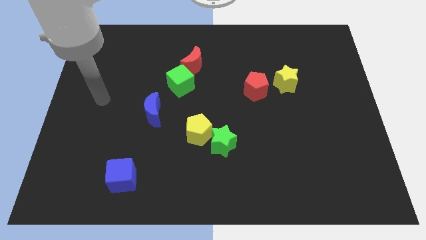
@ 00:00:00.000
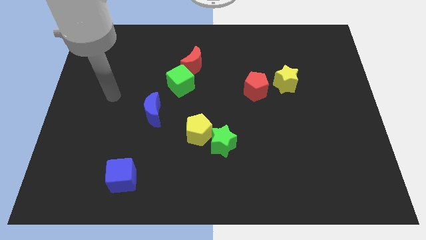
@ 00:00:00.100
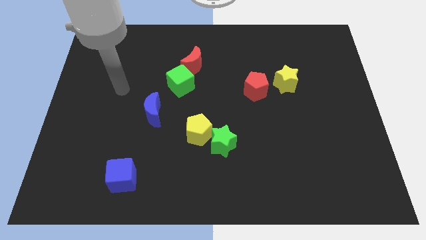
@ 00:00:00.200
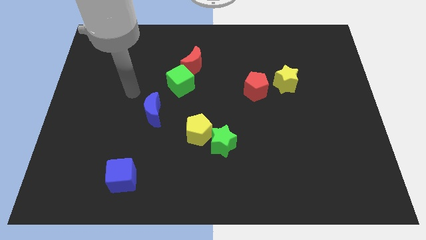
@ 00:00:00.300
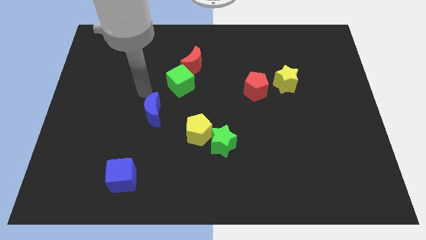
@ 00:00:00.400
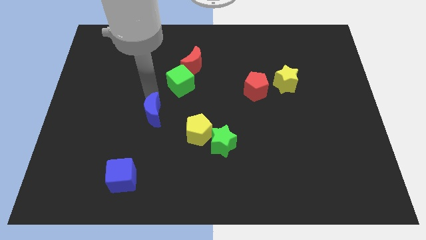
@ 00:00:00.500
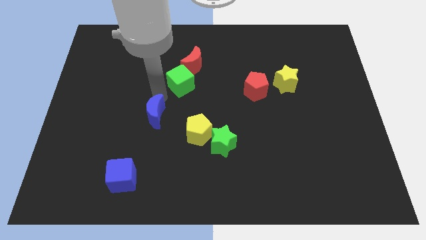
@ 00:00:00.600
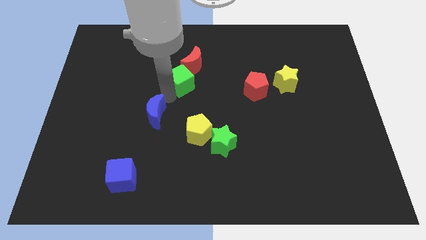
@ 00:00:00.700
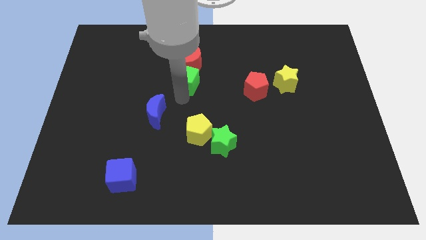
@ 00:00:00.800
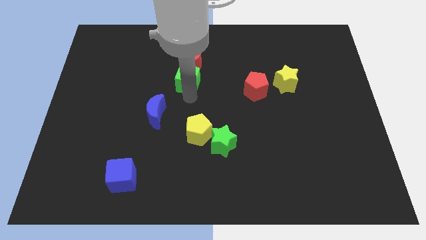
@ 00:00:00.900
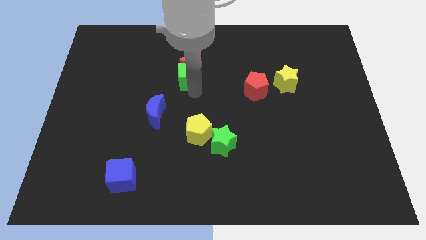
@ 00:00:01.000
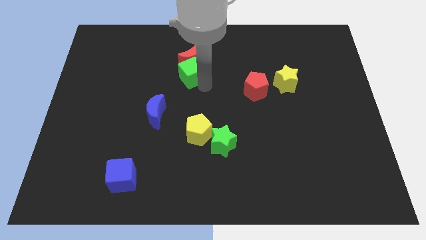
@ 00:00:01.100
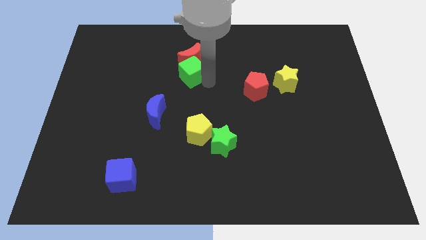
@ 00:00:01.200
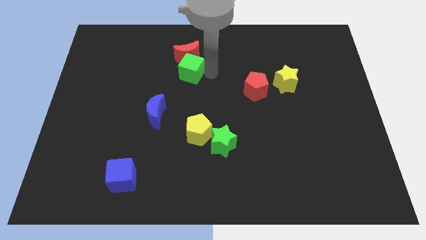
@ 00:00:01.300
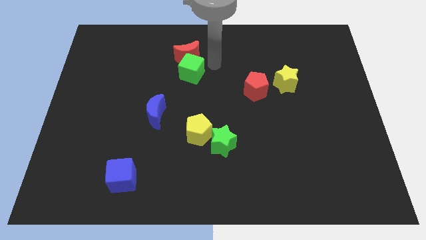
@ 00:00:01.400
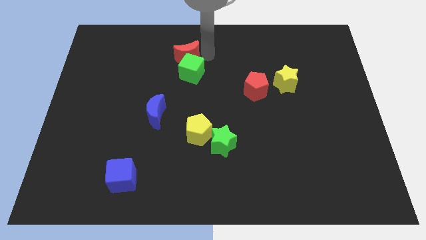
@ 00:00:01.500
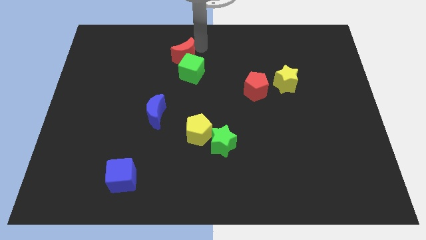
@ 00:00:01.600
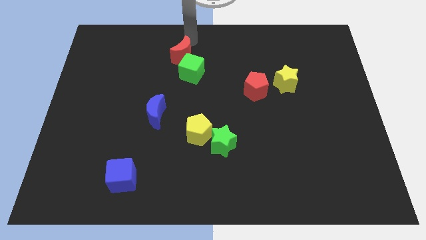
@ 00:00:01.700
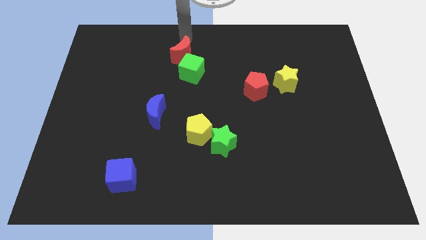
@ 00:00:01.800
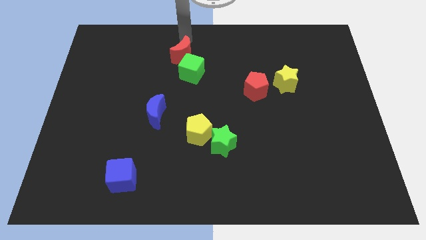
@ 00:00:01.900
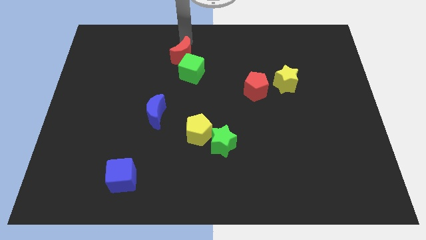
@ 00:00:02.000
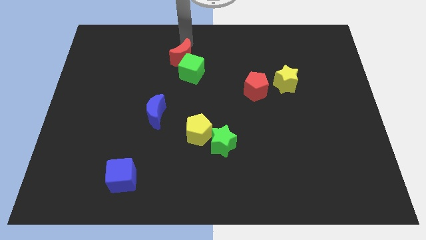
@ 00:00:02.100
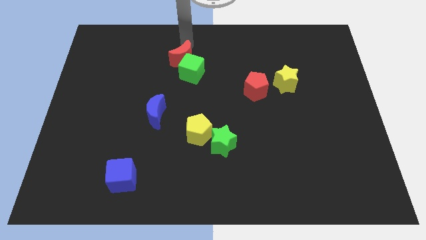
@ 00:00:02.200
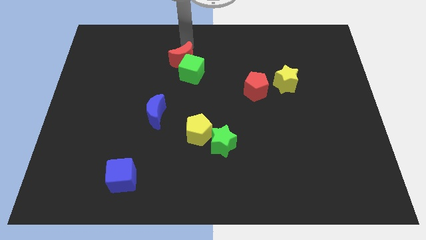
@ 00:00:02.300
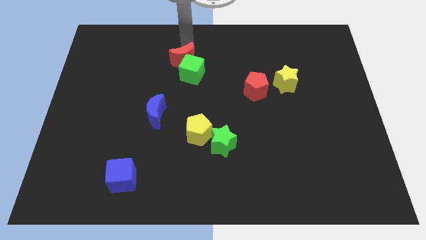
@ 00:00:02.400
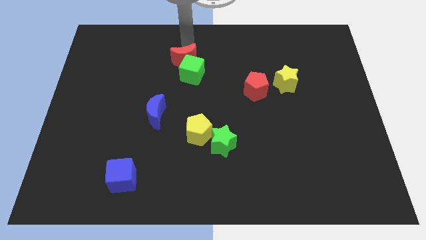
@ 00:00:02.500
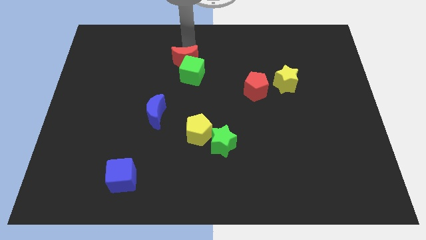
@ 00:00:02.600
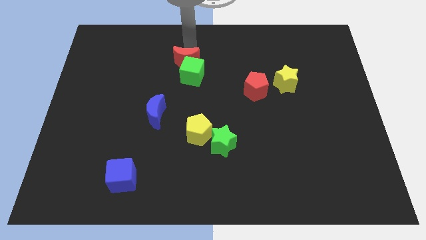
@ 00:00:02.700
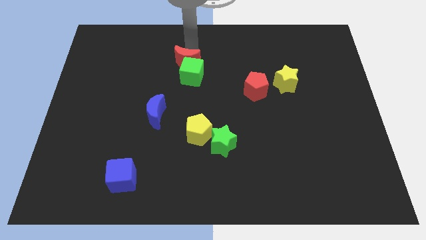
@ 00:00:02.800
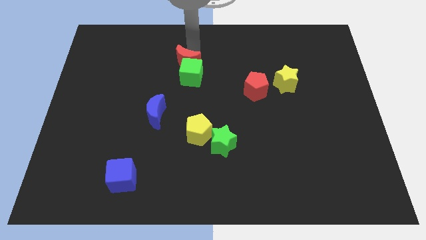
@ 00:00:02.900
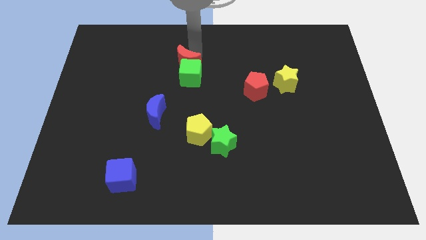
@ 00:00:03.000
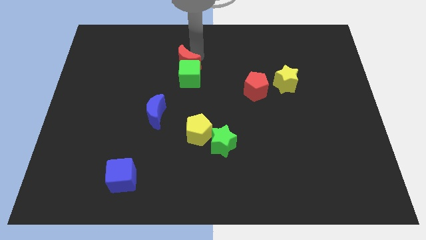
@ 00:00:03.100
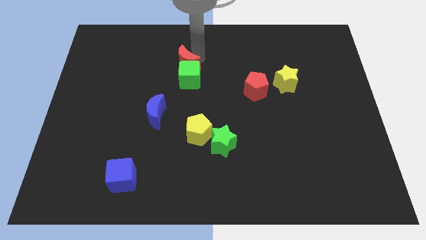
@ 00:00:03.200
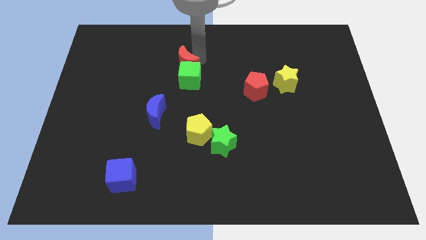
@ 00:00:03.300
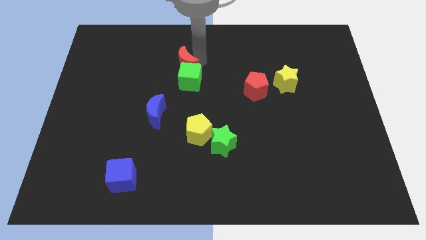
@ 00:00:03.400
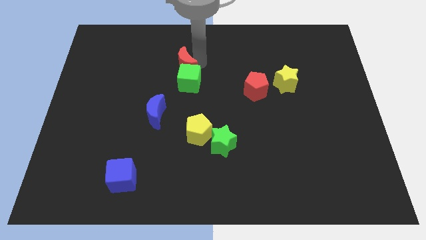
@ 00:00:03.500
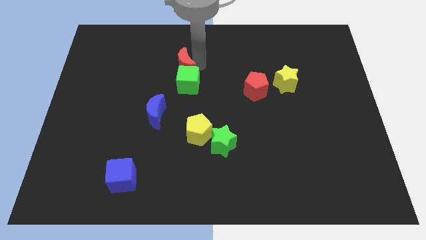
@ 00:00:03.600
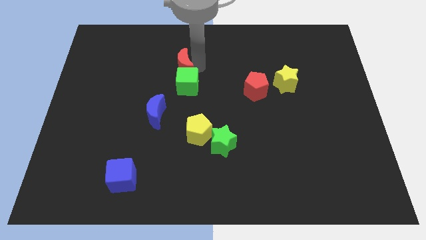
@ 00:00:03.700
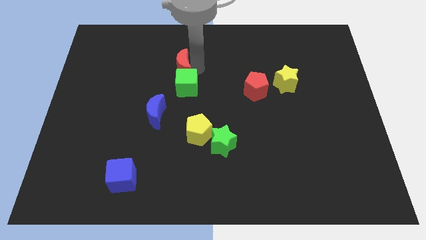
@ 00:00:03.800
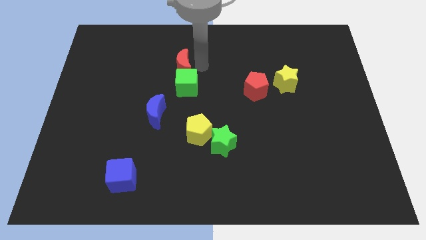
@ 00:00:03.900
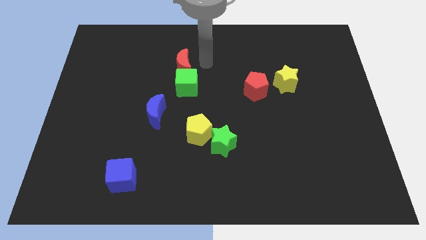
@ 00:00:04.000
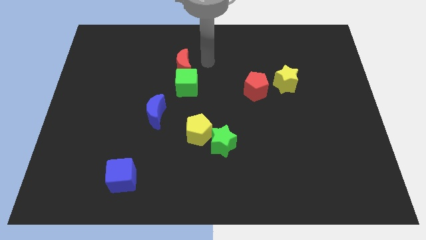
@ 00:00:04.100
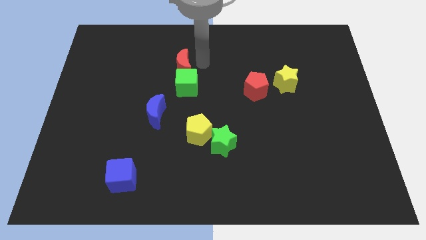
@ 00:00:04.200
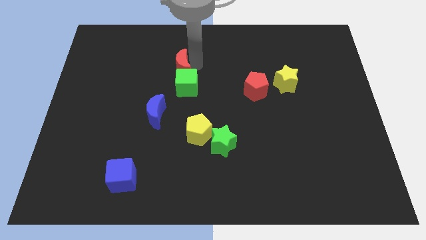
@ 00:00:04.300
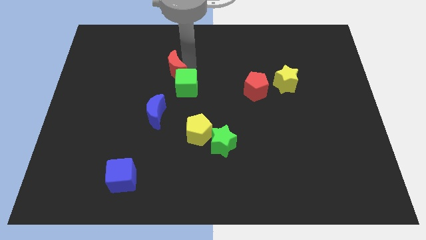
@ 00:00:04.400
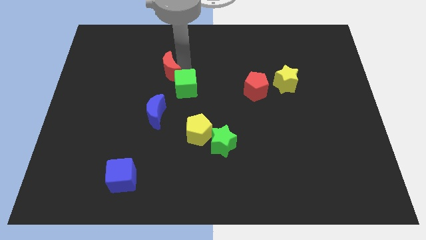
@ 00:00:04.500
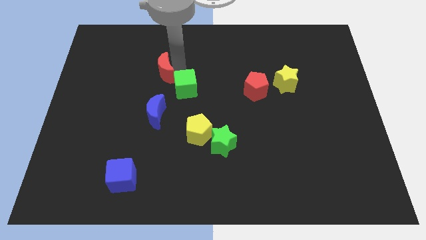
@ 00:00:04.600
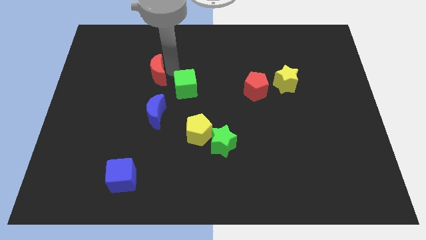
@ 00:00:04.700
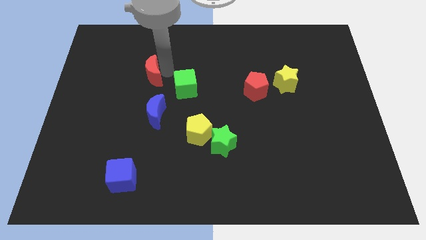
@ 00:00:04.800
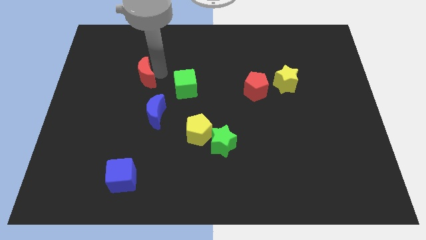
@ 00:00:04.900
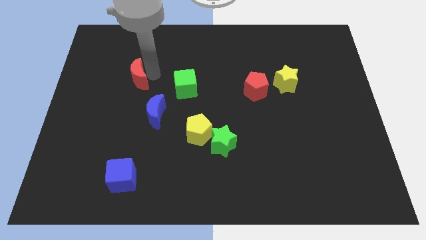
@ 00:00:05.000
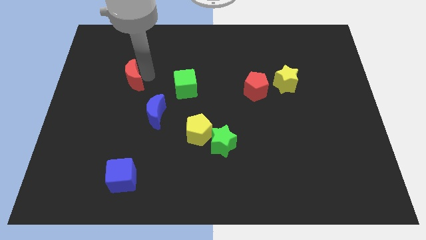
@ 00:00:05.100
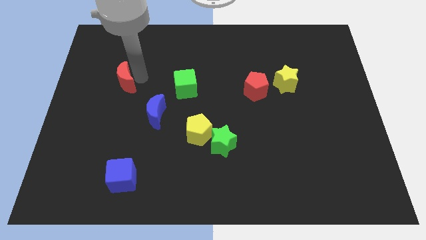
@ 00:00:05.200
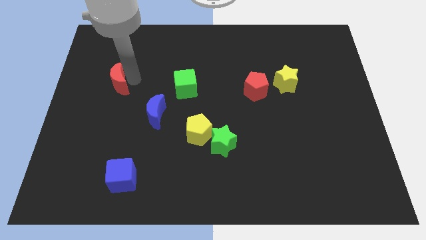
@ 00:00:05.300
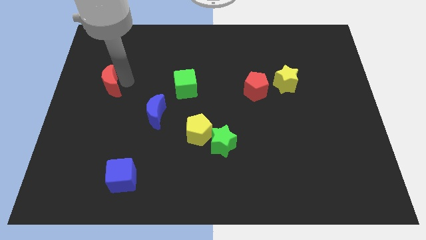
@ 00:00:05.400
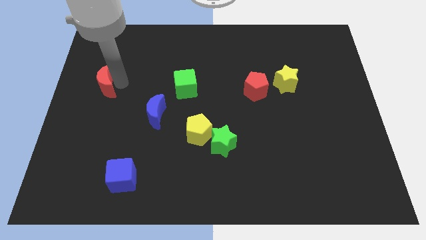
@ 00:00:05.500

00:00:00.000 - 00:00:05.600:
put the red moon to the left side

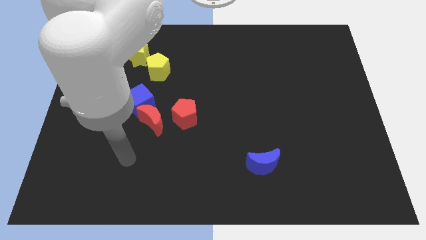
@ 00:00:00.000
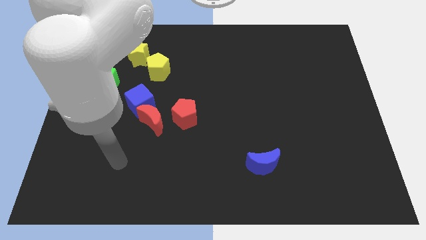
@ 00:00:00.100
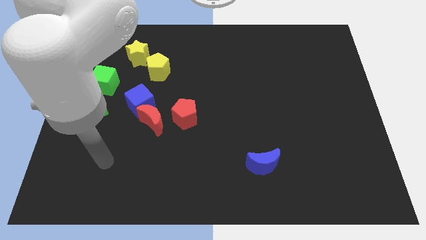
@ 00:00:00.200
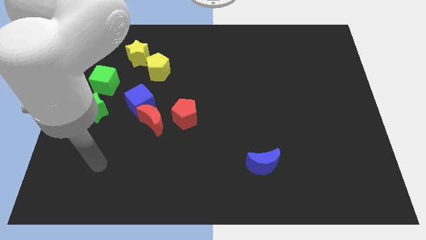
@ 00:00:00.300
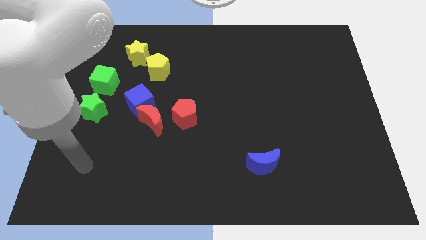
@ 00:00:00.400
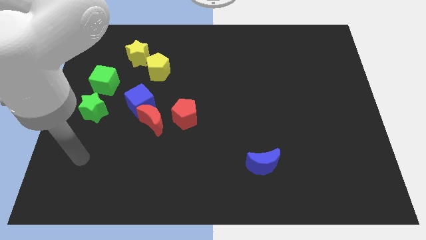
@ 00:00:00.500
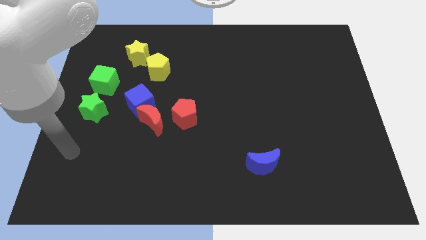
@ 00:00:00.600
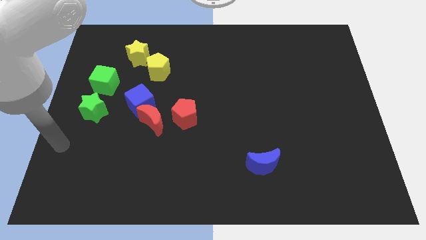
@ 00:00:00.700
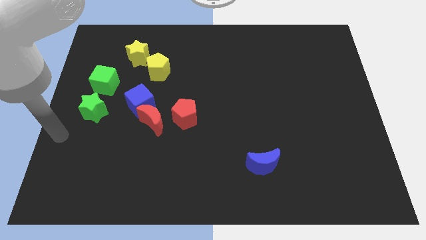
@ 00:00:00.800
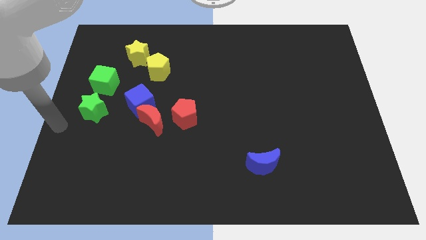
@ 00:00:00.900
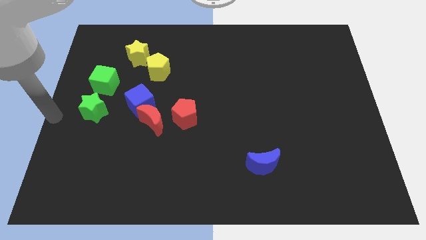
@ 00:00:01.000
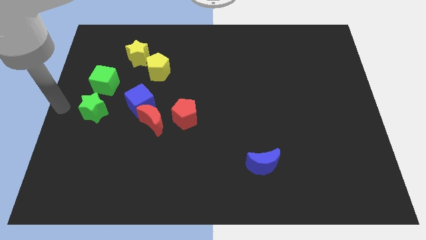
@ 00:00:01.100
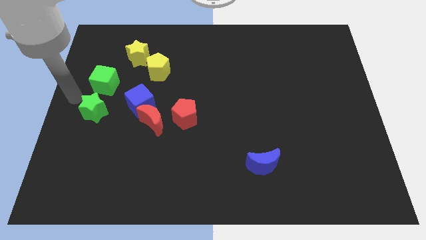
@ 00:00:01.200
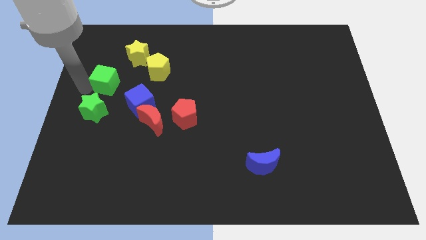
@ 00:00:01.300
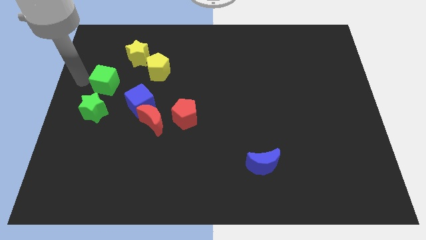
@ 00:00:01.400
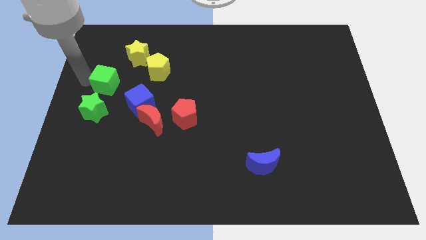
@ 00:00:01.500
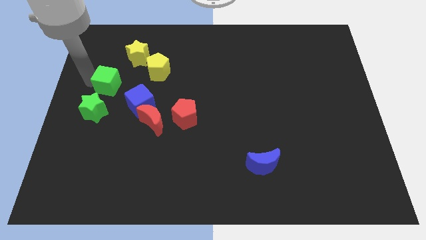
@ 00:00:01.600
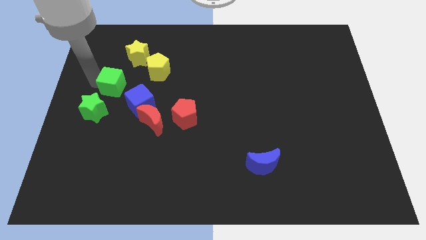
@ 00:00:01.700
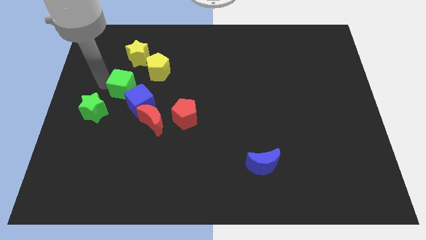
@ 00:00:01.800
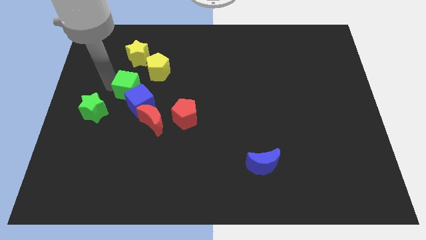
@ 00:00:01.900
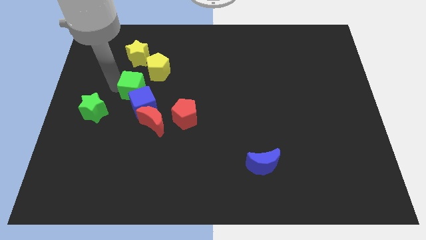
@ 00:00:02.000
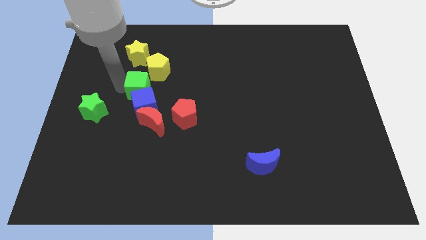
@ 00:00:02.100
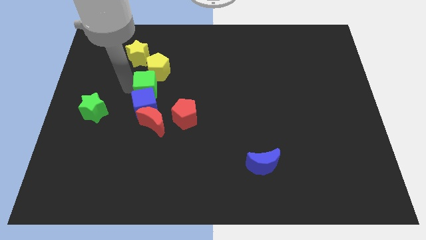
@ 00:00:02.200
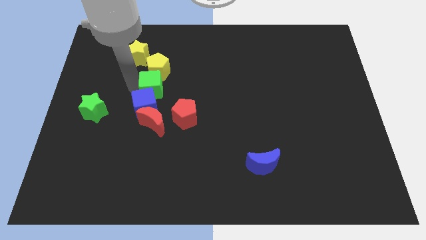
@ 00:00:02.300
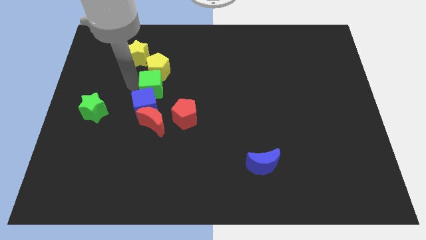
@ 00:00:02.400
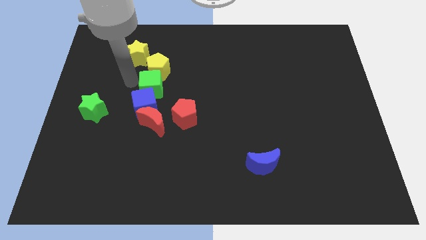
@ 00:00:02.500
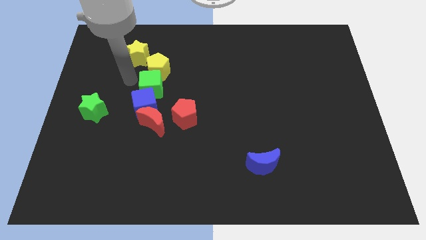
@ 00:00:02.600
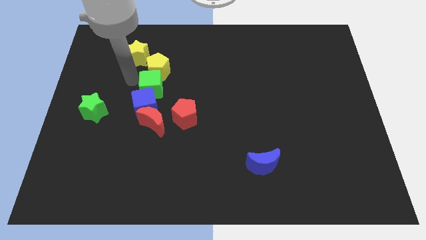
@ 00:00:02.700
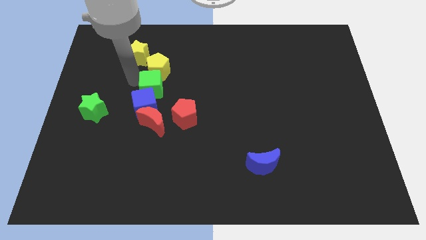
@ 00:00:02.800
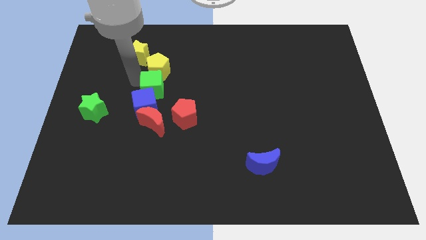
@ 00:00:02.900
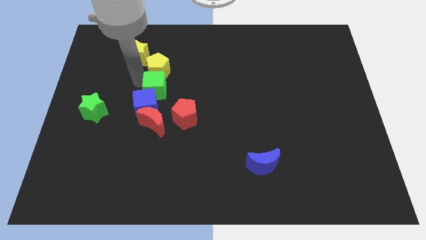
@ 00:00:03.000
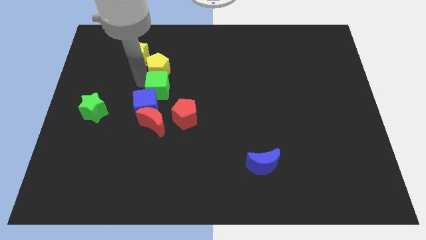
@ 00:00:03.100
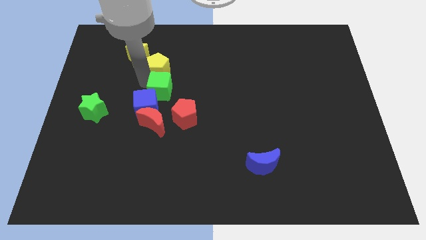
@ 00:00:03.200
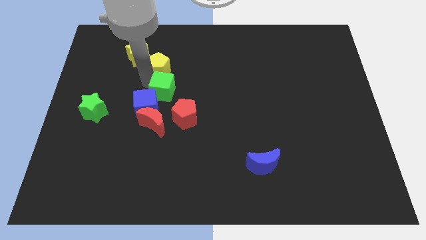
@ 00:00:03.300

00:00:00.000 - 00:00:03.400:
put the green cube to the middle
